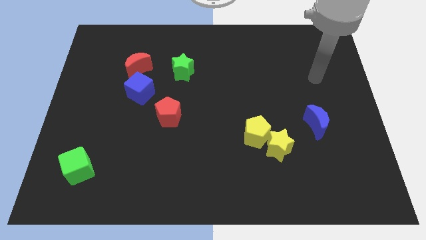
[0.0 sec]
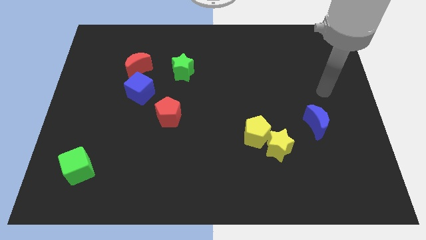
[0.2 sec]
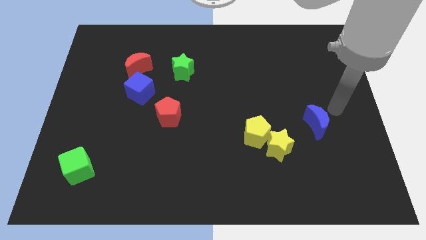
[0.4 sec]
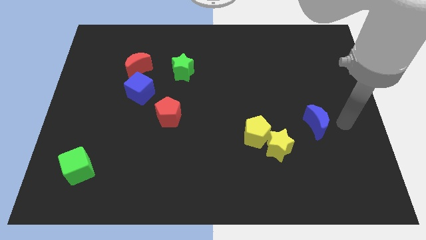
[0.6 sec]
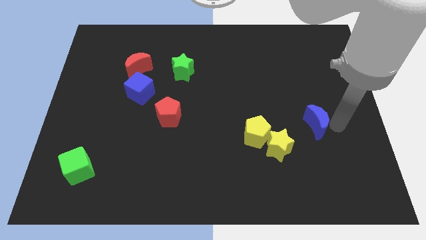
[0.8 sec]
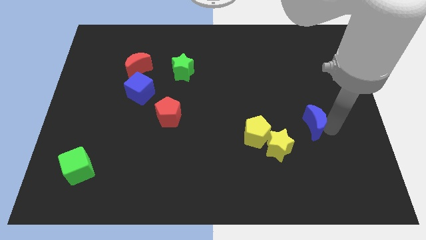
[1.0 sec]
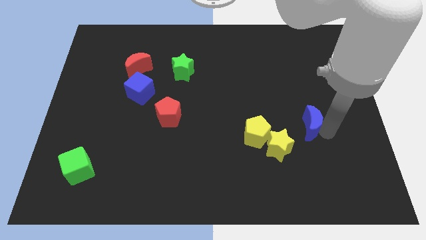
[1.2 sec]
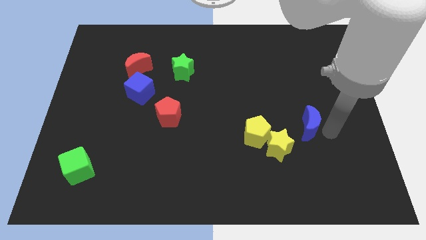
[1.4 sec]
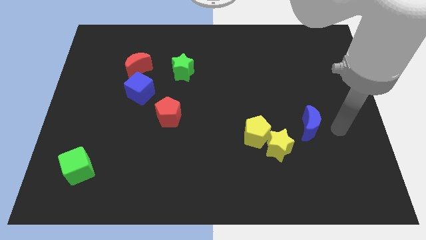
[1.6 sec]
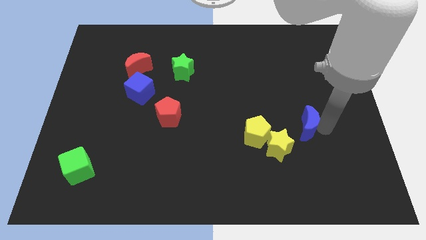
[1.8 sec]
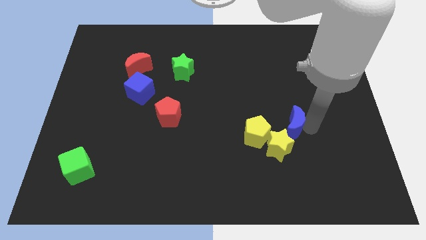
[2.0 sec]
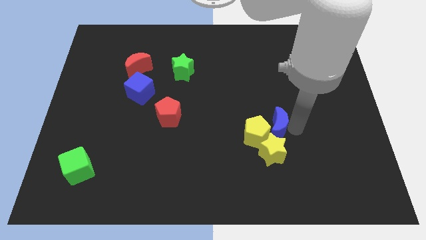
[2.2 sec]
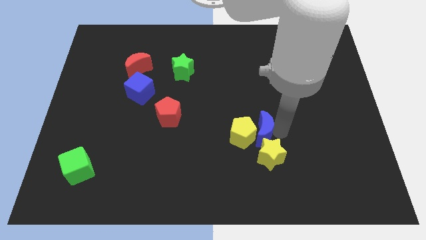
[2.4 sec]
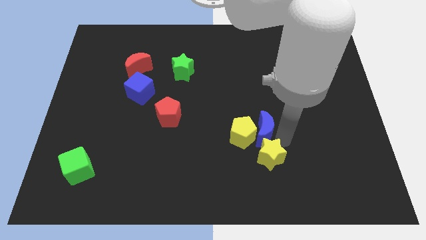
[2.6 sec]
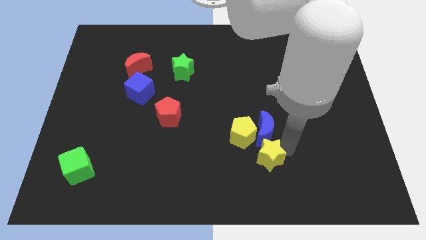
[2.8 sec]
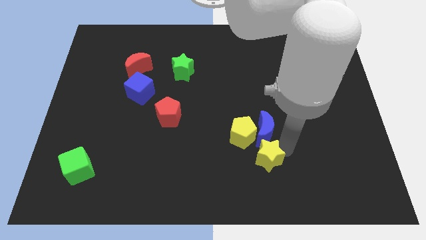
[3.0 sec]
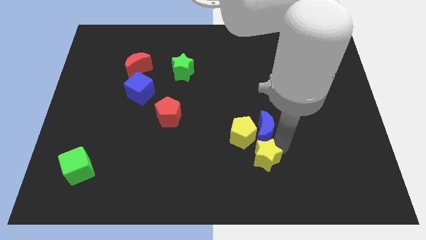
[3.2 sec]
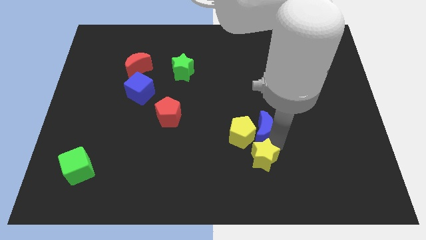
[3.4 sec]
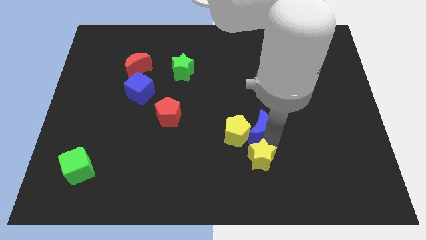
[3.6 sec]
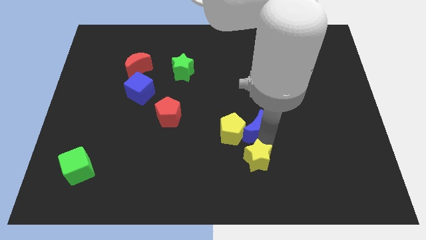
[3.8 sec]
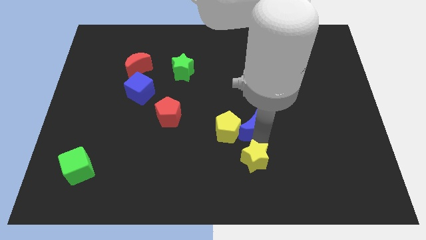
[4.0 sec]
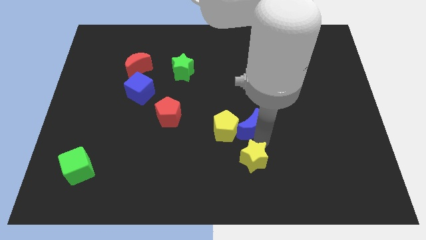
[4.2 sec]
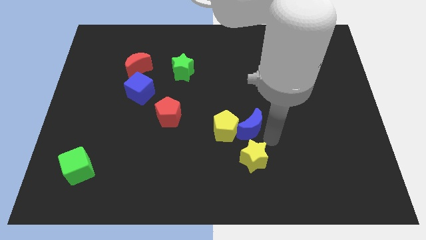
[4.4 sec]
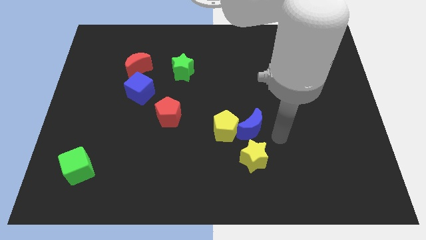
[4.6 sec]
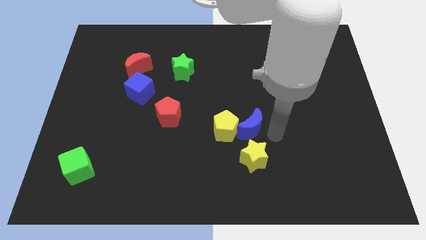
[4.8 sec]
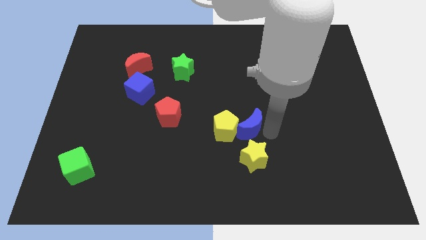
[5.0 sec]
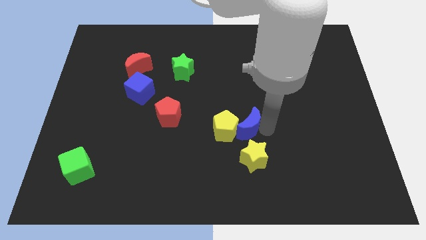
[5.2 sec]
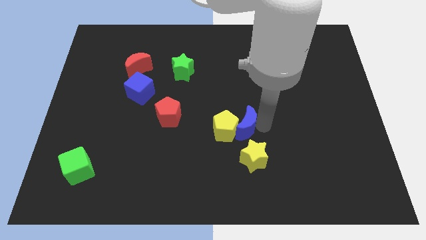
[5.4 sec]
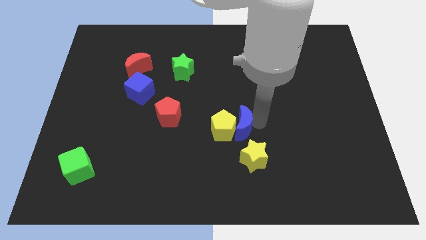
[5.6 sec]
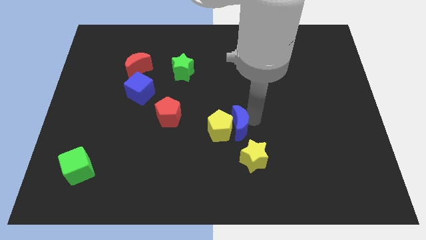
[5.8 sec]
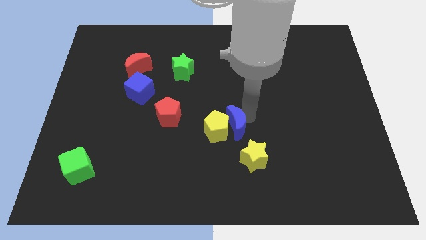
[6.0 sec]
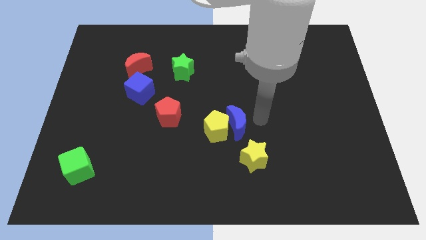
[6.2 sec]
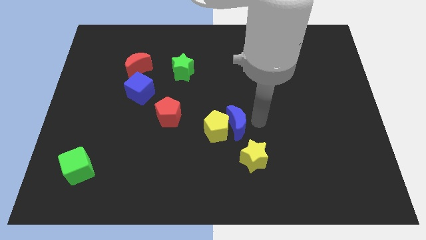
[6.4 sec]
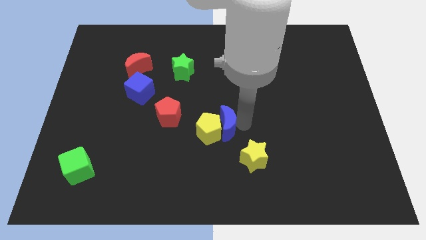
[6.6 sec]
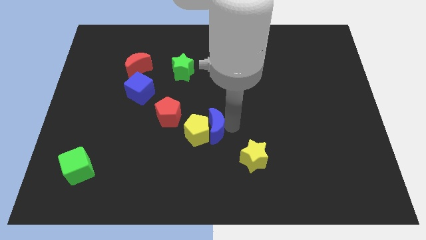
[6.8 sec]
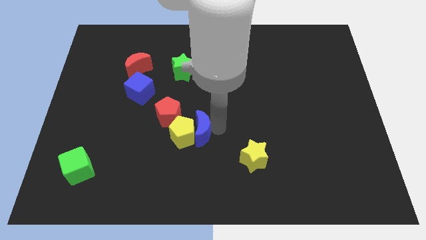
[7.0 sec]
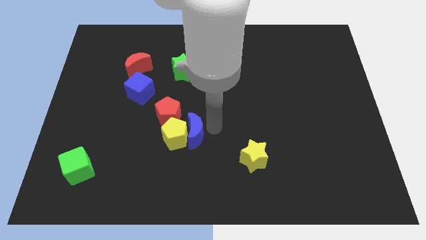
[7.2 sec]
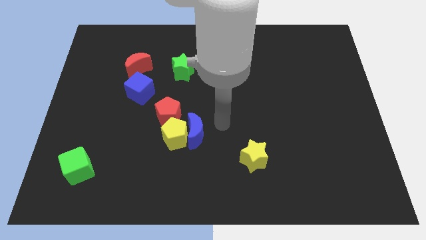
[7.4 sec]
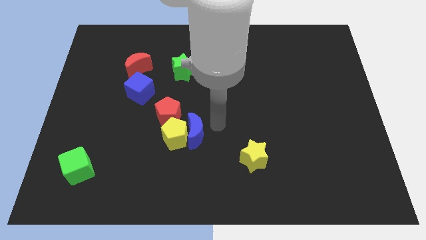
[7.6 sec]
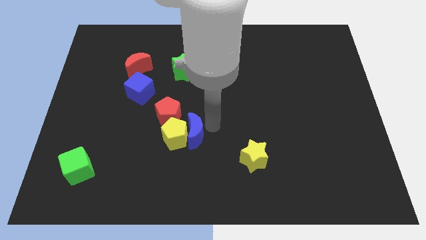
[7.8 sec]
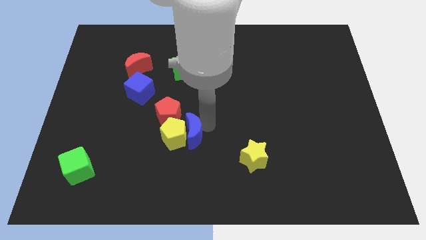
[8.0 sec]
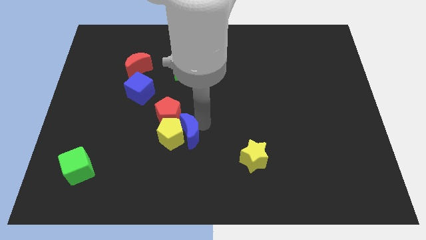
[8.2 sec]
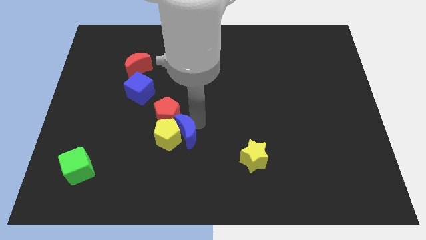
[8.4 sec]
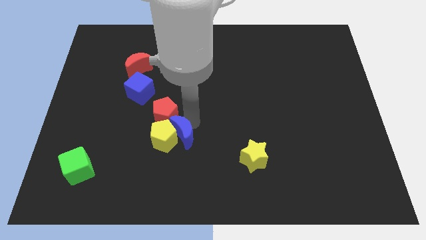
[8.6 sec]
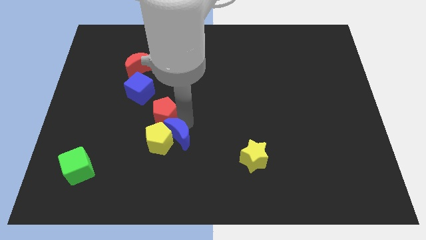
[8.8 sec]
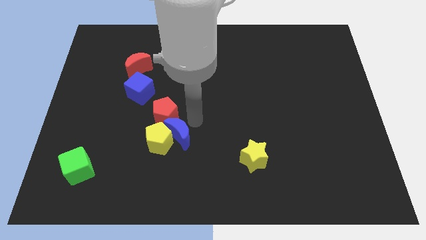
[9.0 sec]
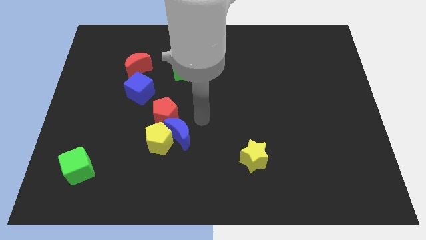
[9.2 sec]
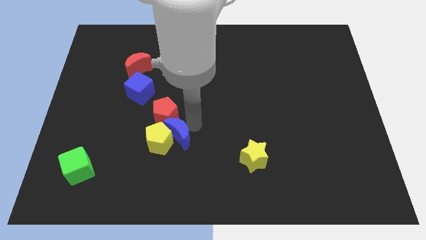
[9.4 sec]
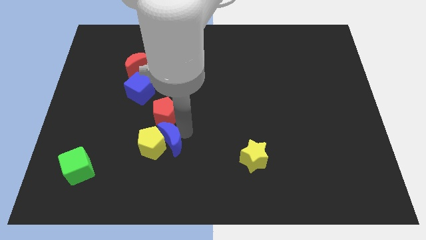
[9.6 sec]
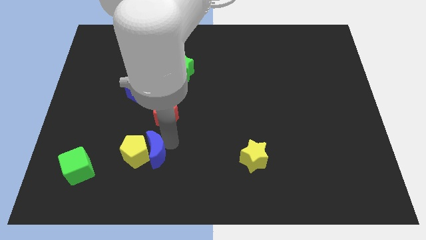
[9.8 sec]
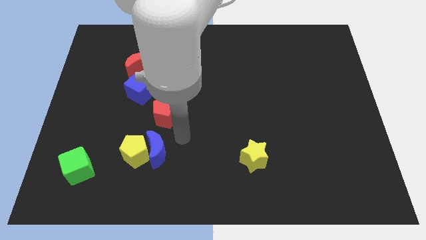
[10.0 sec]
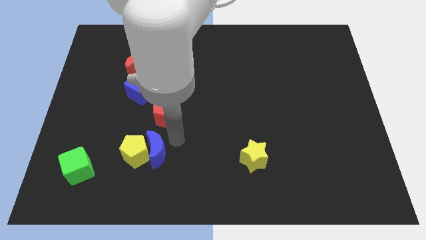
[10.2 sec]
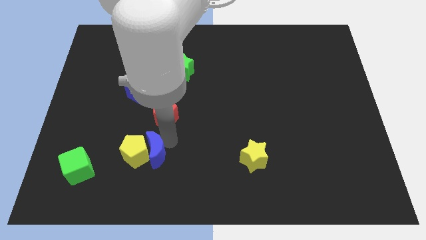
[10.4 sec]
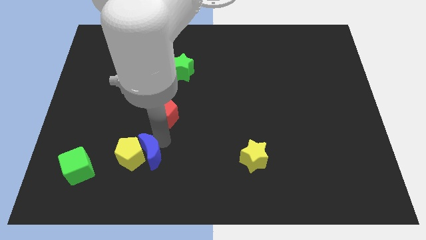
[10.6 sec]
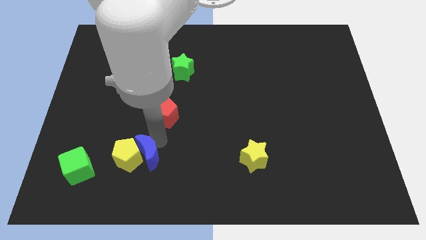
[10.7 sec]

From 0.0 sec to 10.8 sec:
put the blue moon to the right of the green cube

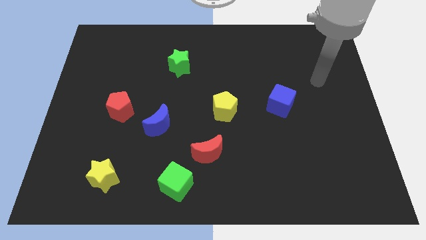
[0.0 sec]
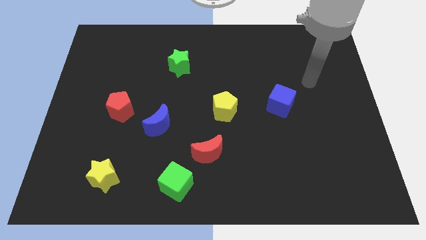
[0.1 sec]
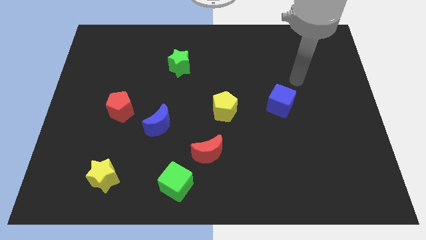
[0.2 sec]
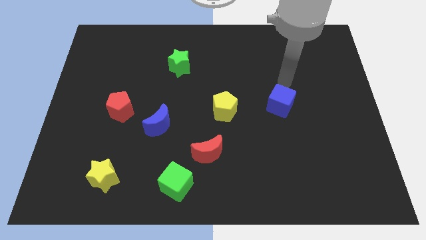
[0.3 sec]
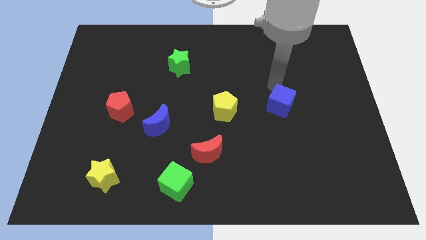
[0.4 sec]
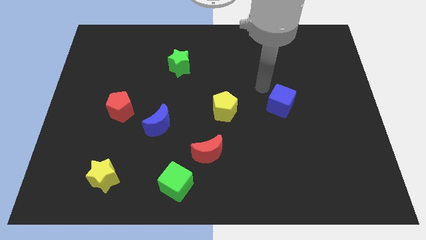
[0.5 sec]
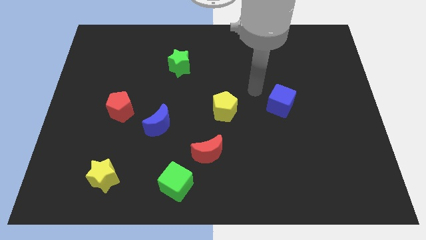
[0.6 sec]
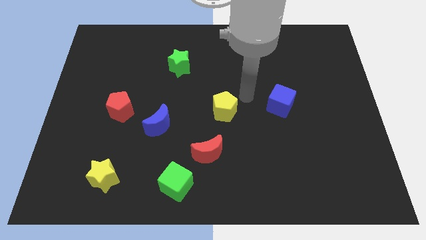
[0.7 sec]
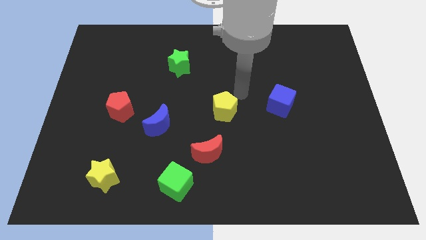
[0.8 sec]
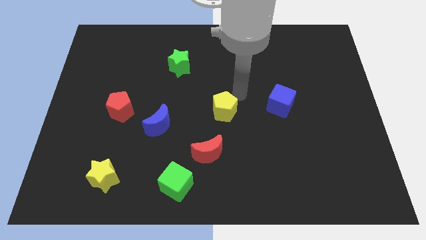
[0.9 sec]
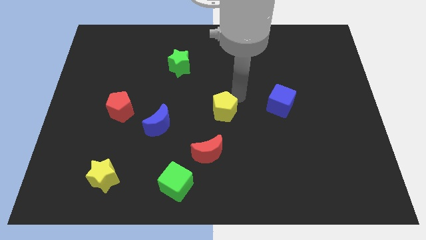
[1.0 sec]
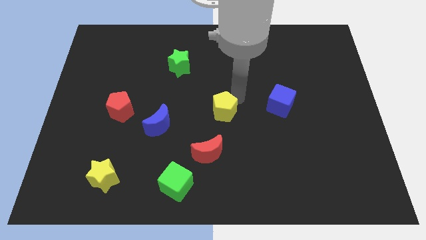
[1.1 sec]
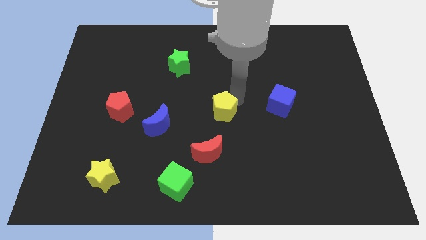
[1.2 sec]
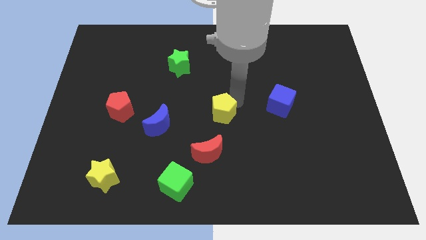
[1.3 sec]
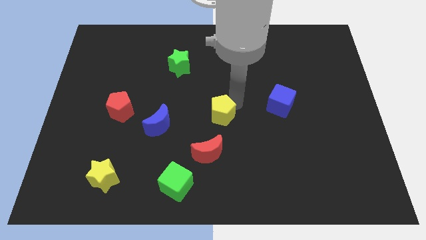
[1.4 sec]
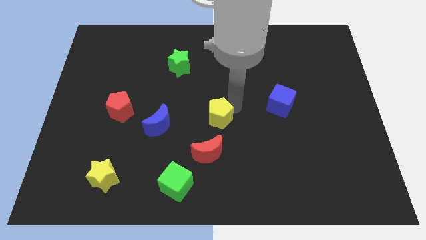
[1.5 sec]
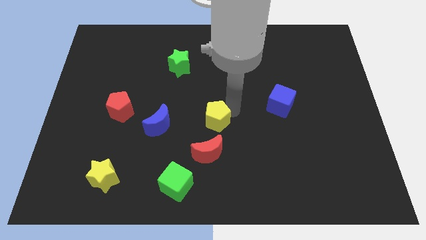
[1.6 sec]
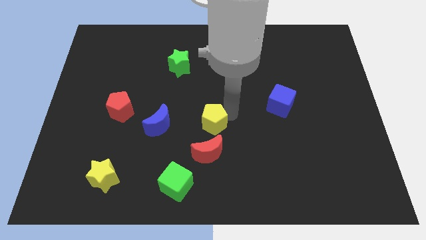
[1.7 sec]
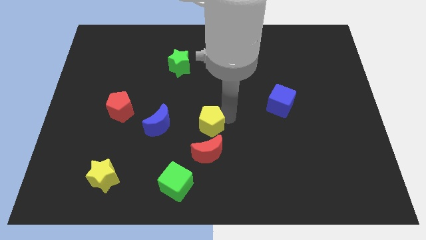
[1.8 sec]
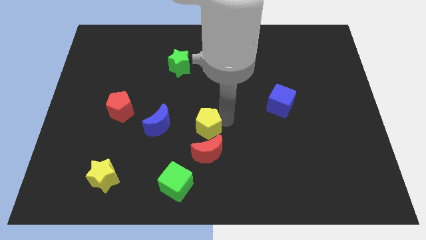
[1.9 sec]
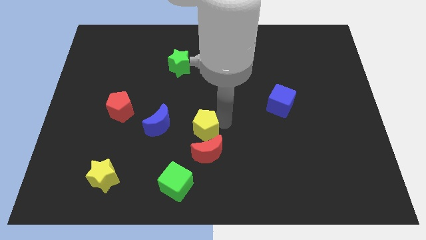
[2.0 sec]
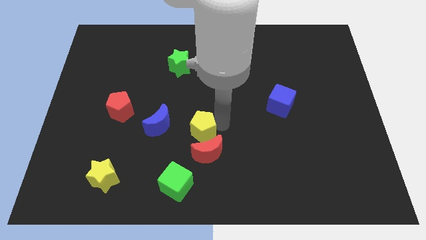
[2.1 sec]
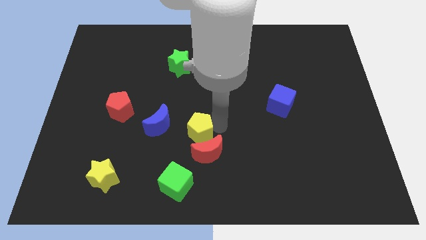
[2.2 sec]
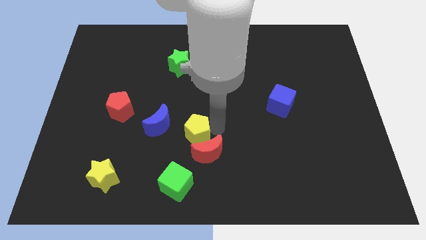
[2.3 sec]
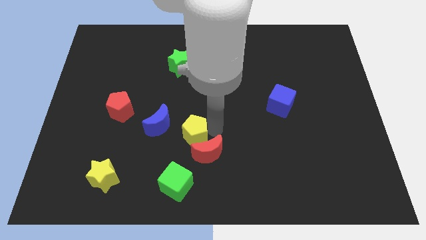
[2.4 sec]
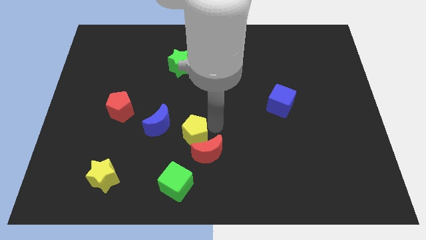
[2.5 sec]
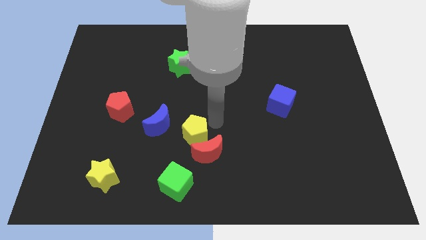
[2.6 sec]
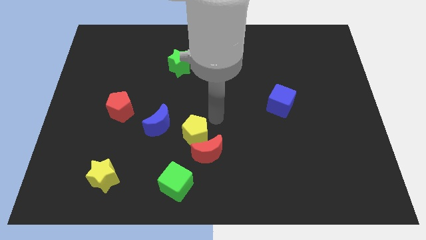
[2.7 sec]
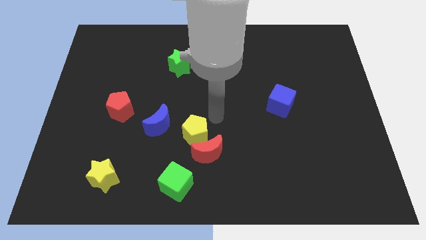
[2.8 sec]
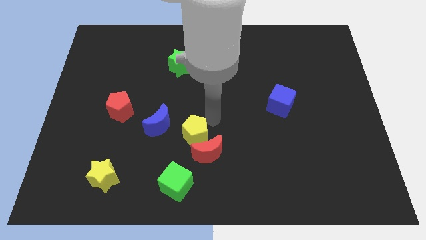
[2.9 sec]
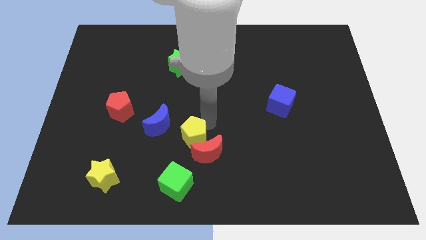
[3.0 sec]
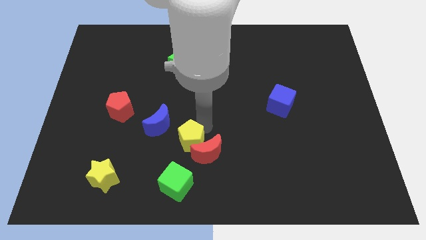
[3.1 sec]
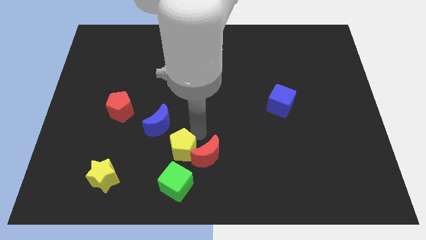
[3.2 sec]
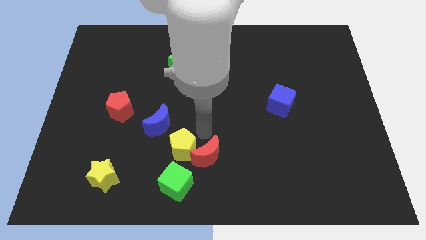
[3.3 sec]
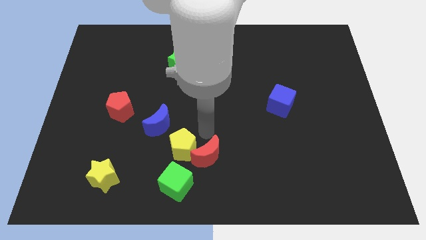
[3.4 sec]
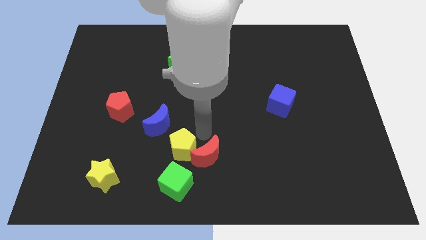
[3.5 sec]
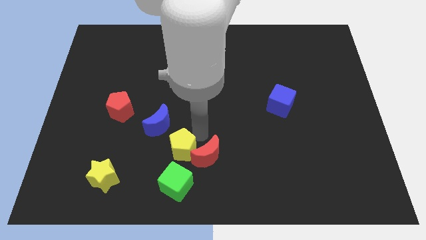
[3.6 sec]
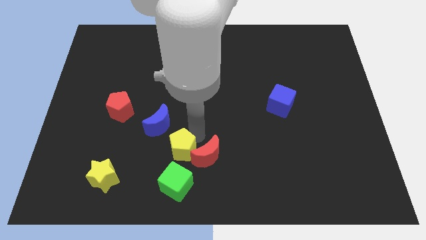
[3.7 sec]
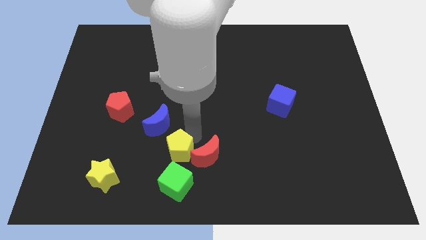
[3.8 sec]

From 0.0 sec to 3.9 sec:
push the yellow pentagon to the bottom side of the blue moon
